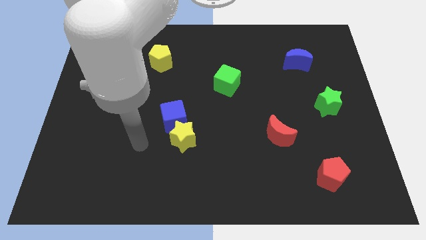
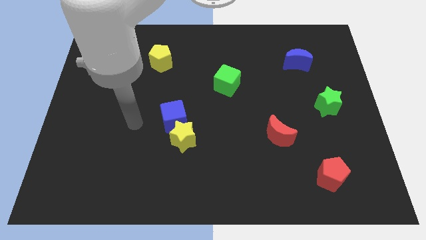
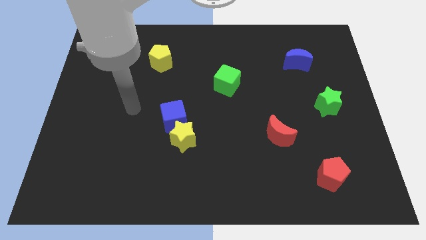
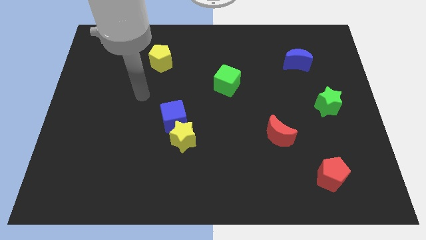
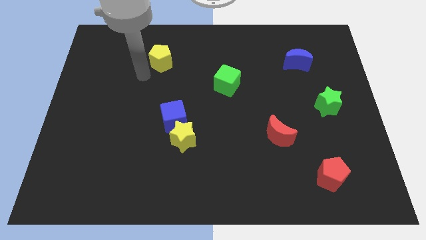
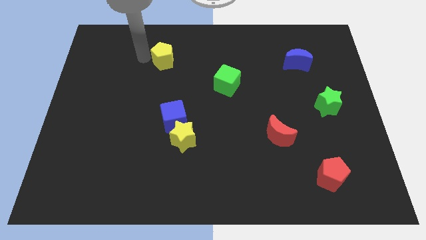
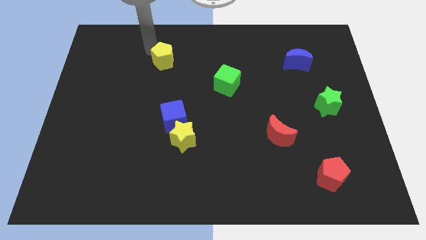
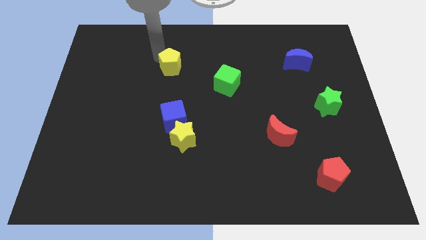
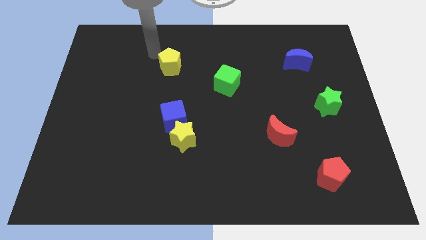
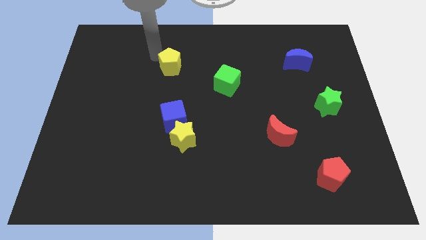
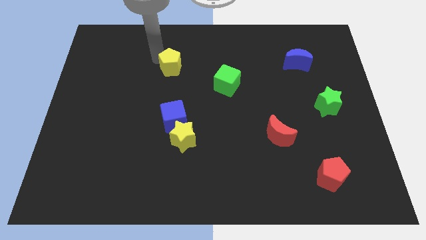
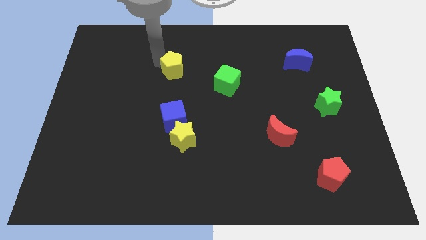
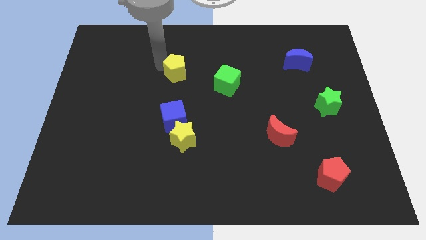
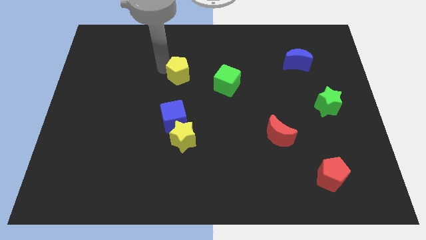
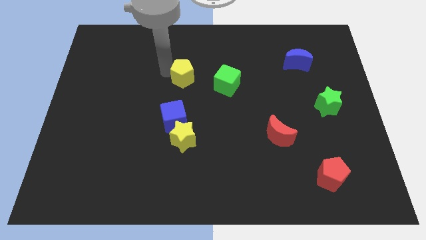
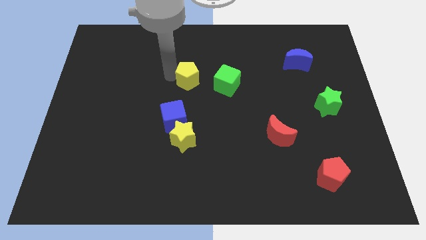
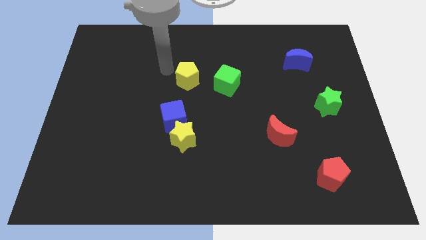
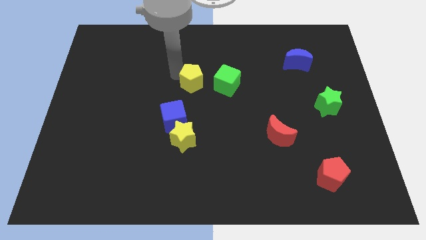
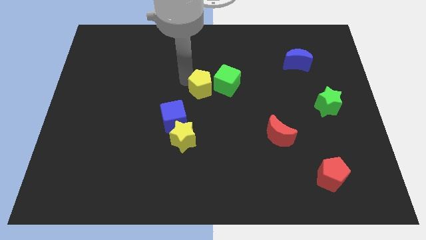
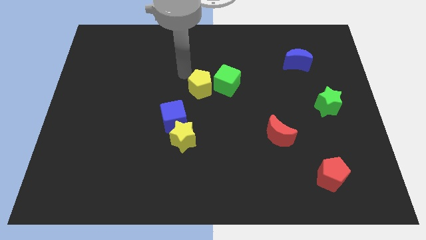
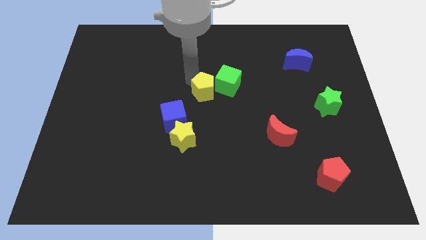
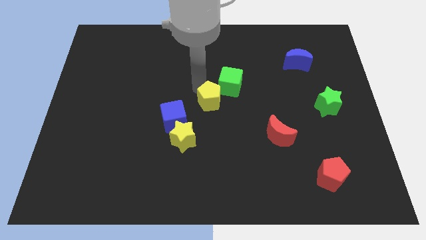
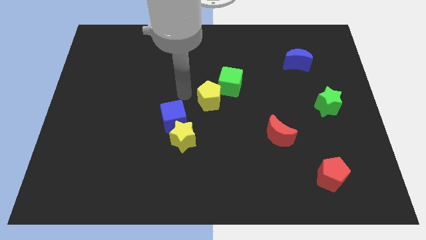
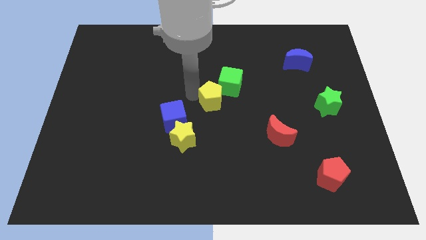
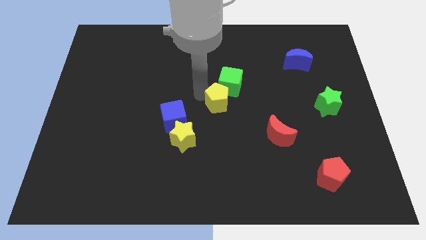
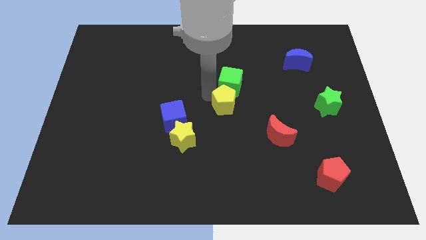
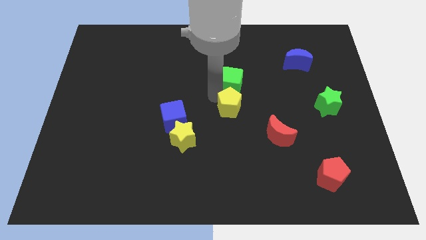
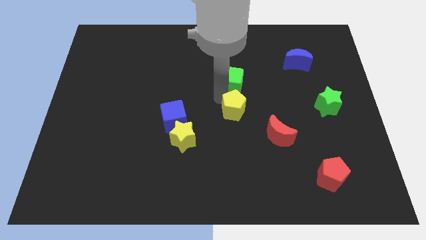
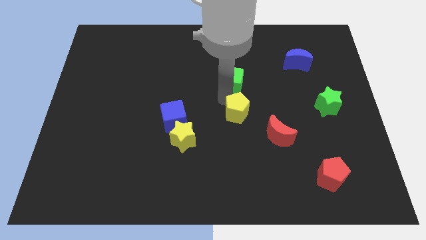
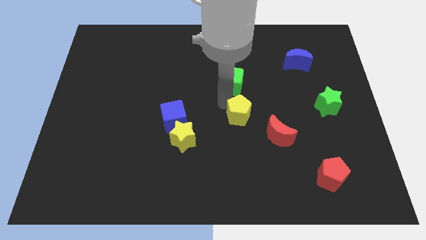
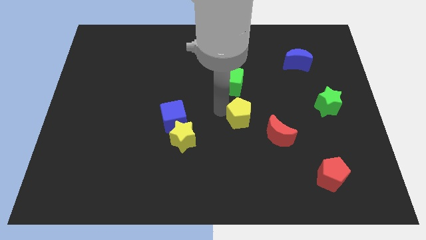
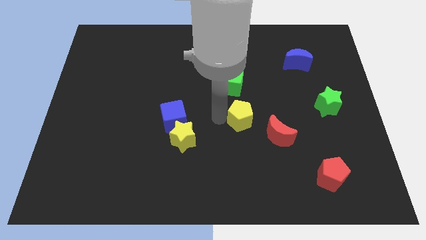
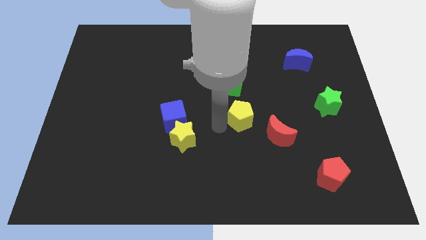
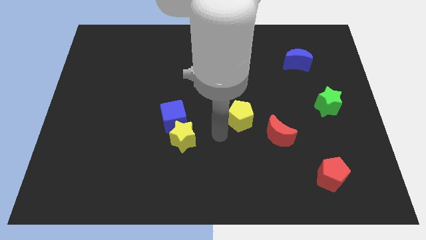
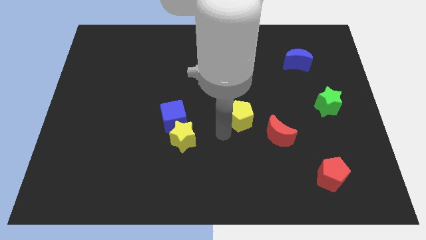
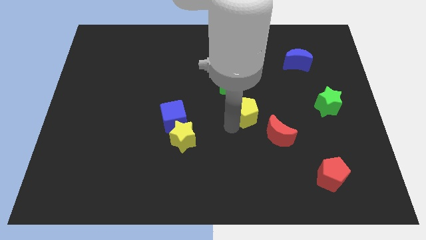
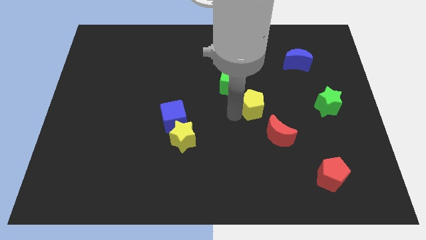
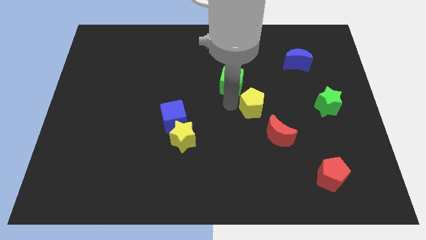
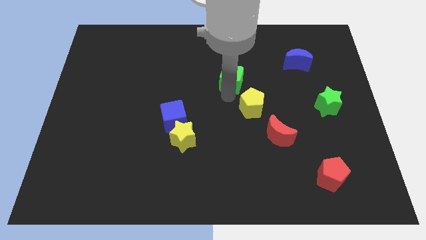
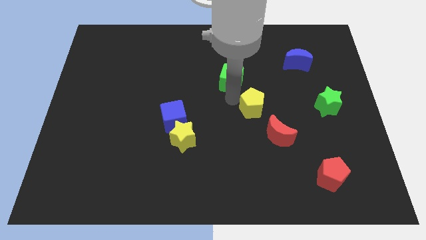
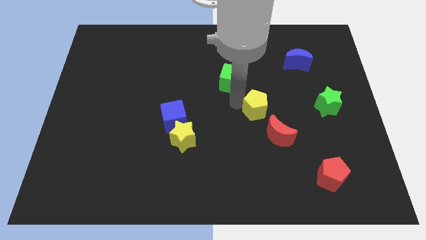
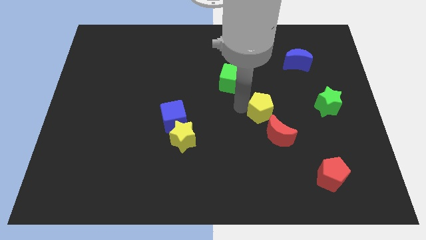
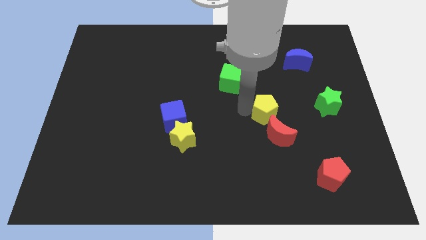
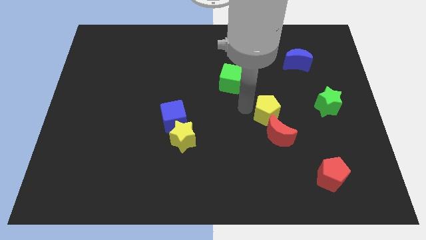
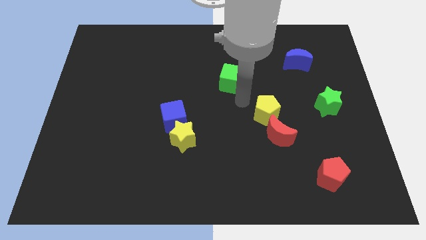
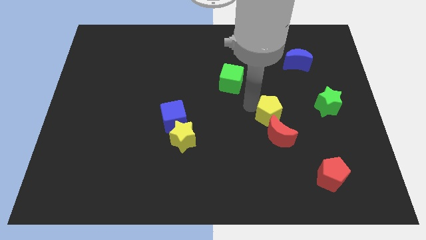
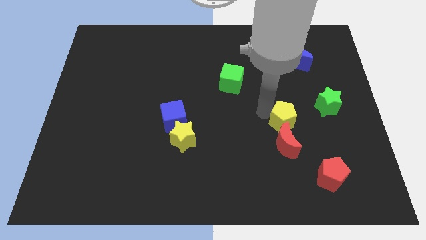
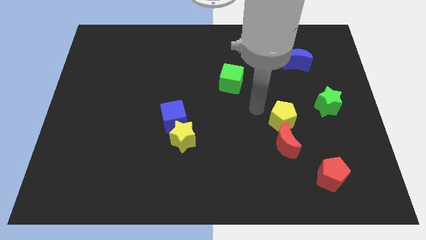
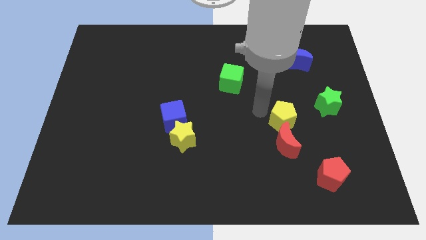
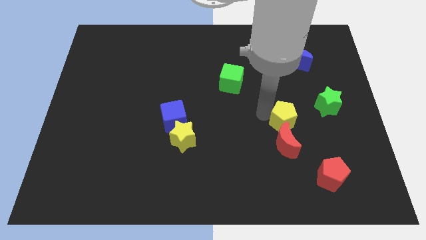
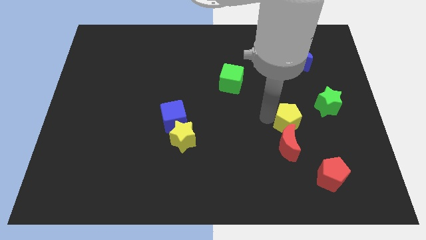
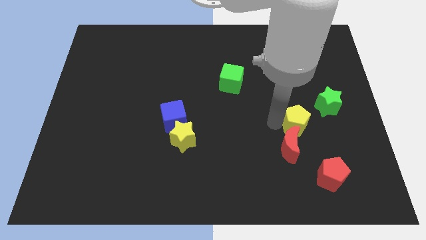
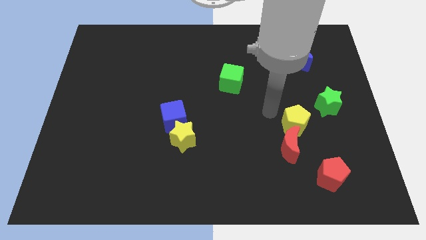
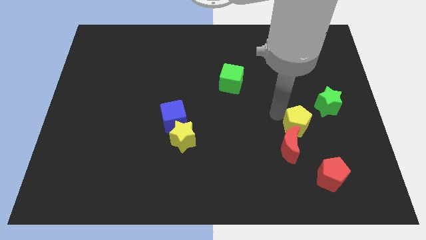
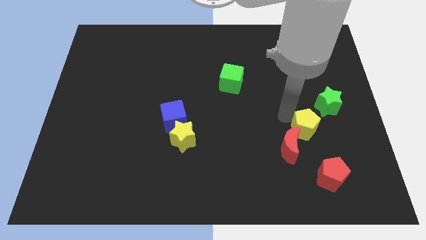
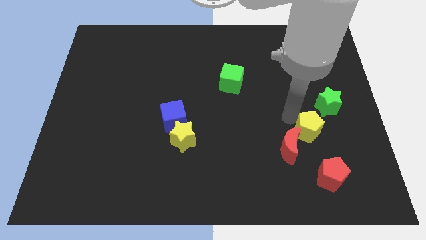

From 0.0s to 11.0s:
slide the yellow pentagon just right of the red moon

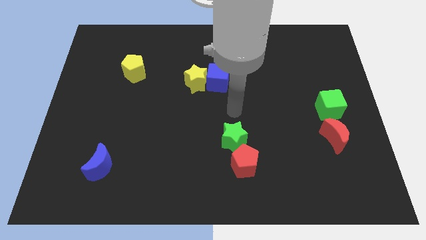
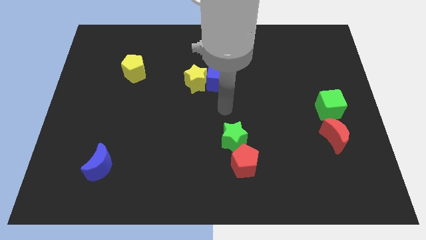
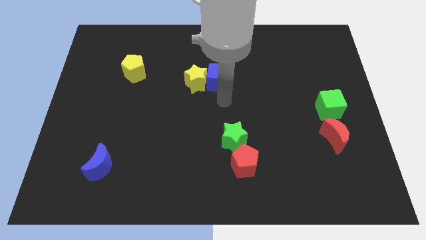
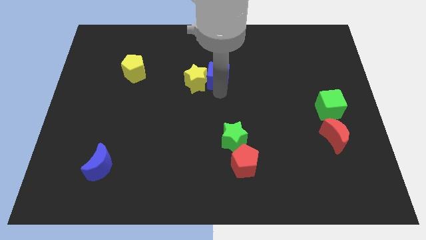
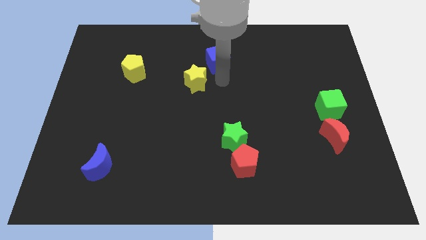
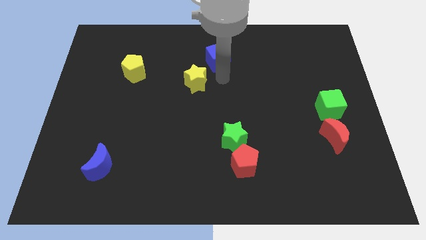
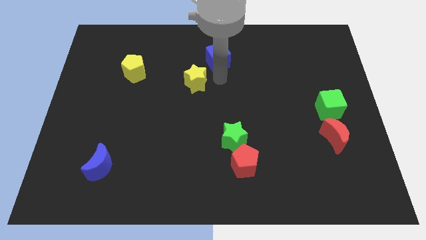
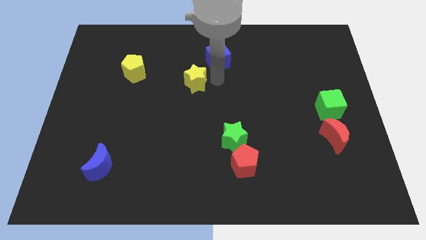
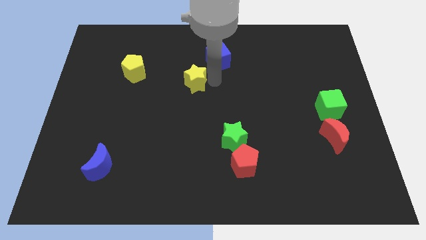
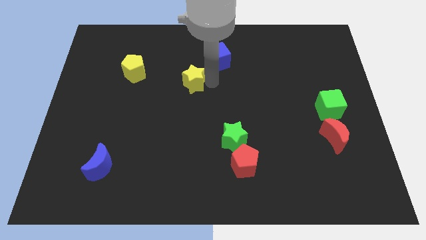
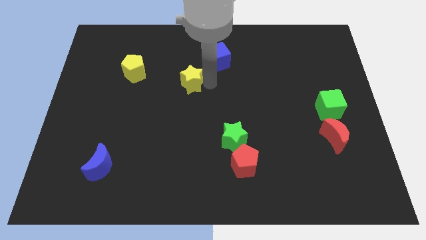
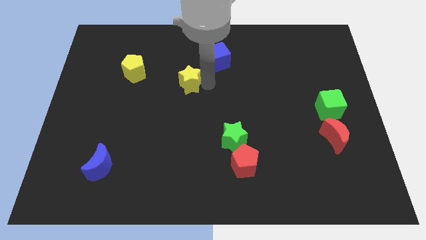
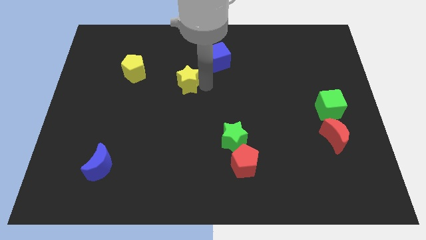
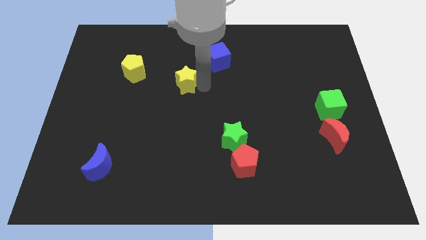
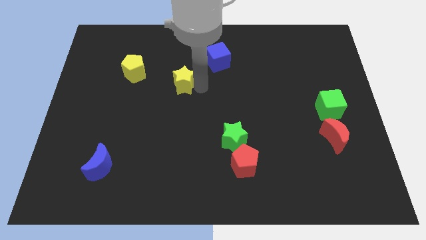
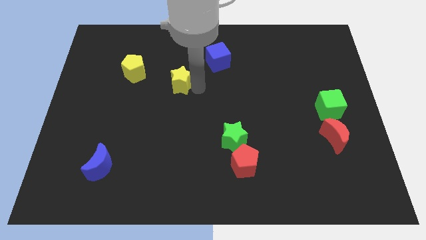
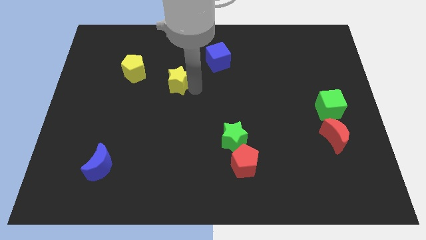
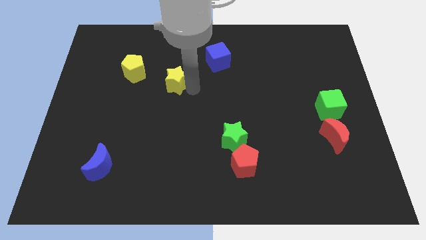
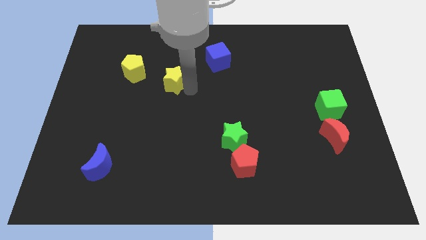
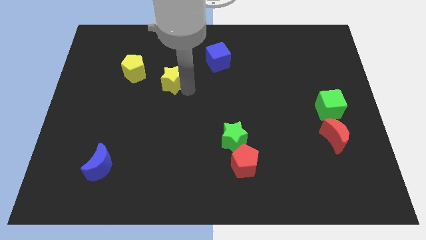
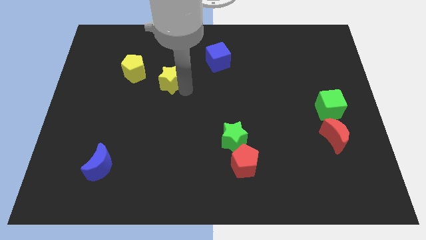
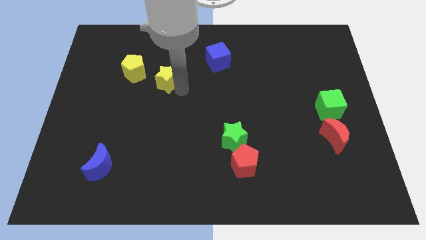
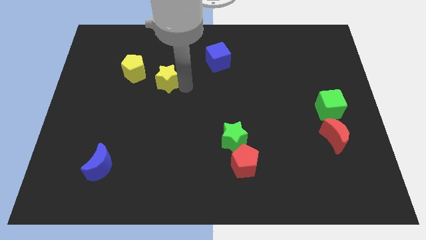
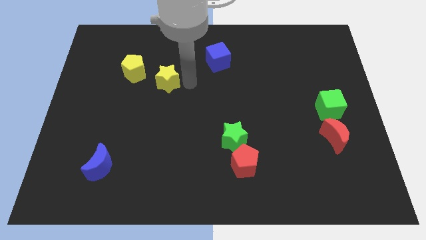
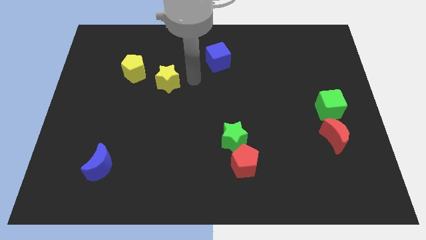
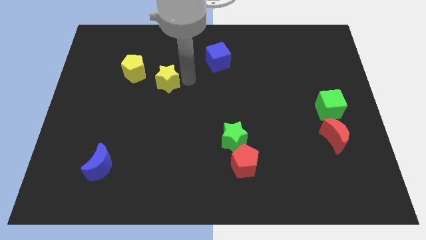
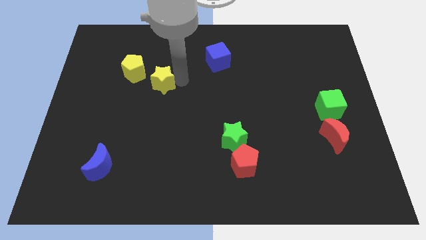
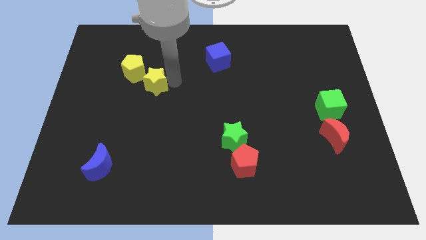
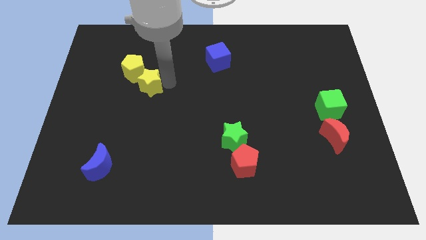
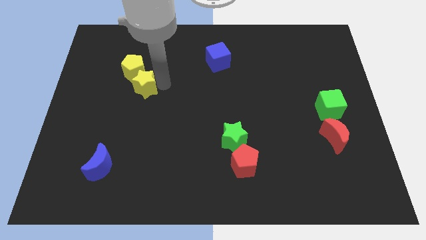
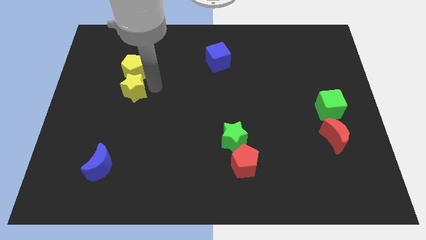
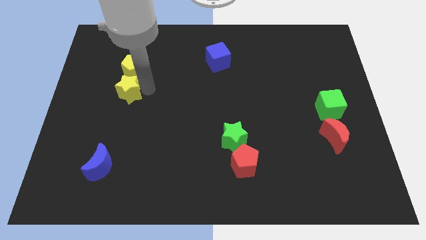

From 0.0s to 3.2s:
push the yellow star to the bottom left of the yellow pentagon
